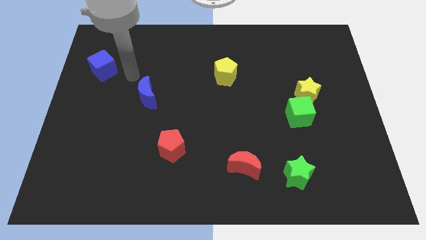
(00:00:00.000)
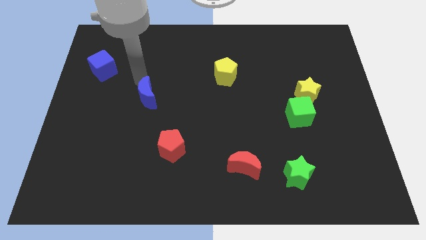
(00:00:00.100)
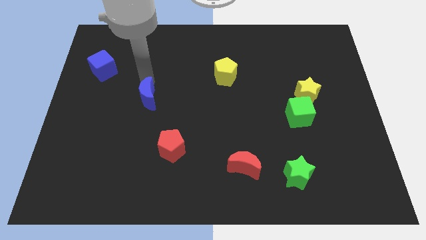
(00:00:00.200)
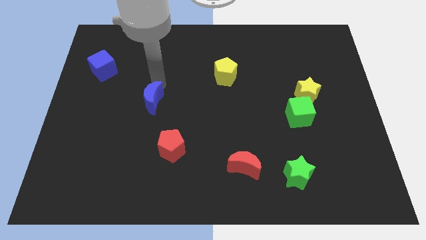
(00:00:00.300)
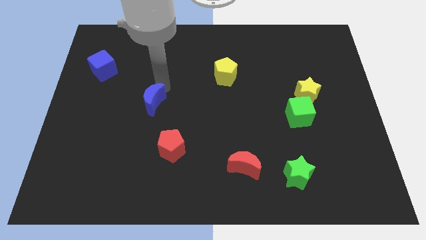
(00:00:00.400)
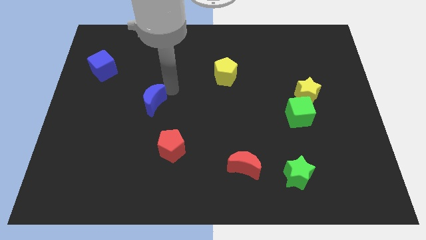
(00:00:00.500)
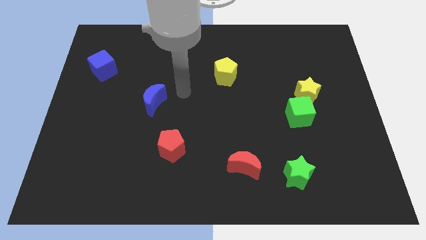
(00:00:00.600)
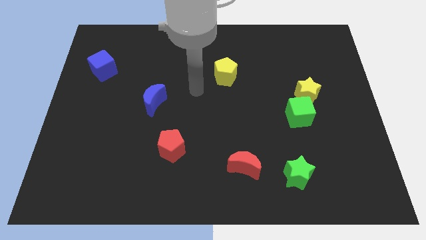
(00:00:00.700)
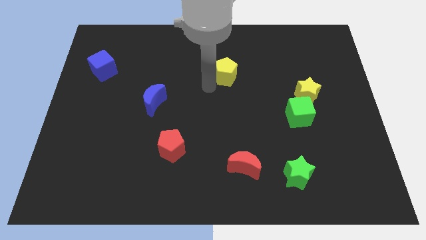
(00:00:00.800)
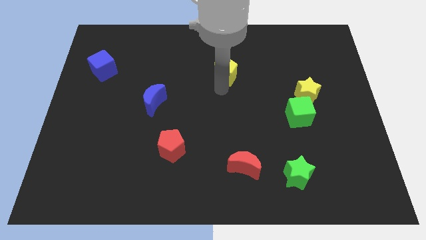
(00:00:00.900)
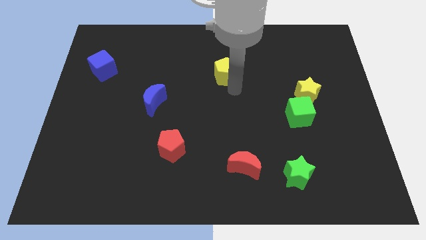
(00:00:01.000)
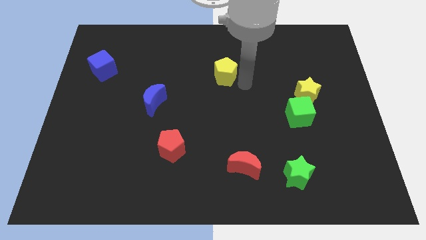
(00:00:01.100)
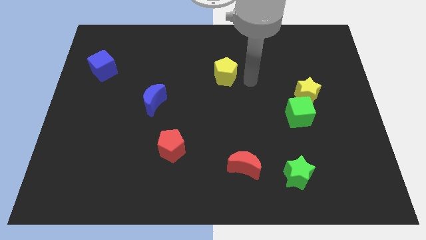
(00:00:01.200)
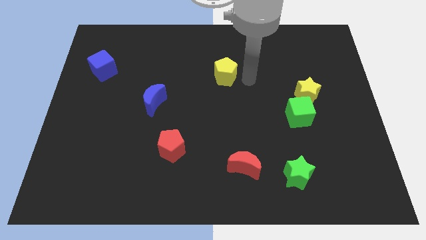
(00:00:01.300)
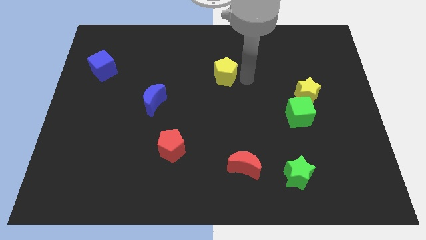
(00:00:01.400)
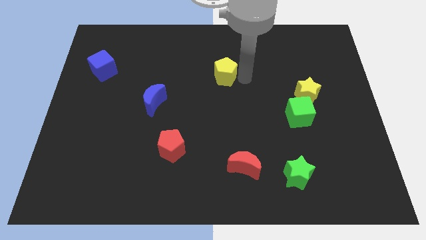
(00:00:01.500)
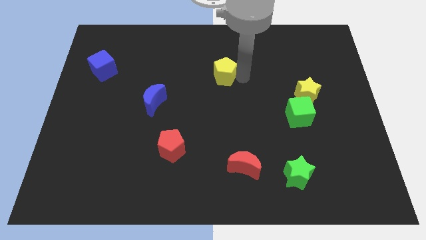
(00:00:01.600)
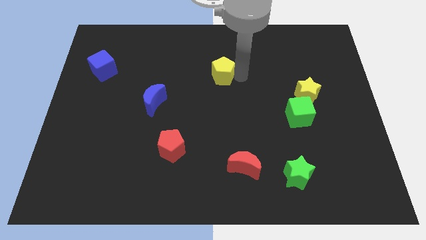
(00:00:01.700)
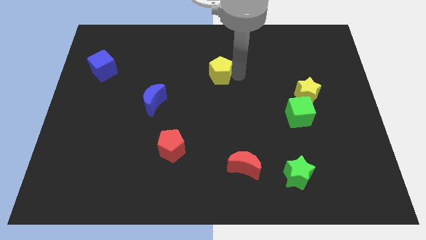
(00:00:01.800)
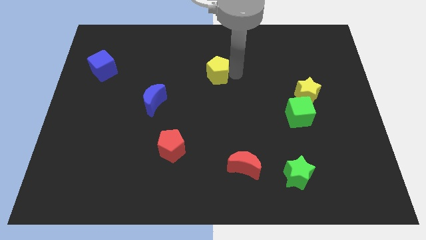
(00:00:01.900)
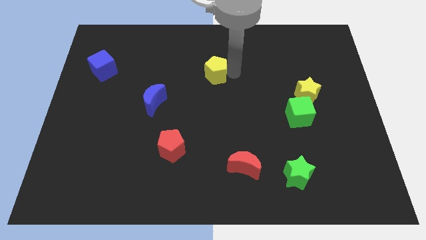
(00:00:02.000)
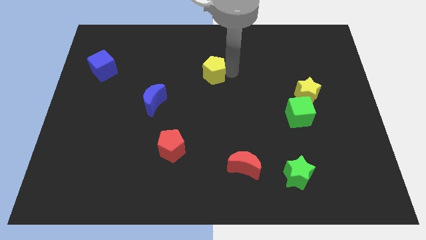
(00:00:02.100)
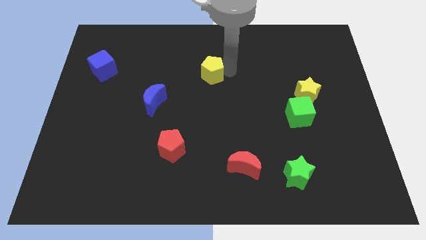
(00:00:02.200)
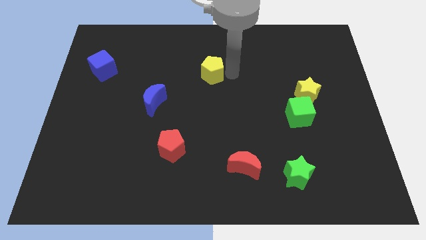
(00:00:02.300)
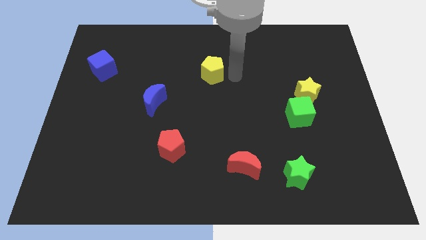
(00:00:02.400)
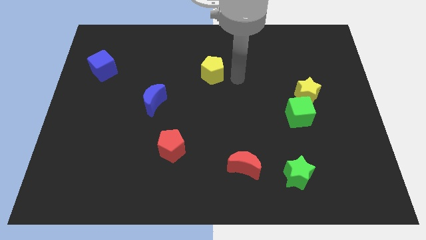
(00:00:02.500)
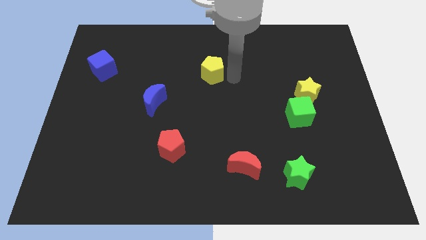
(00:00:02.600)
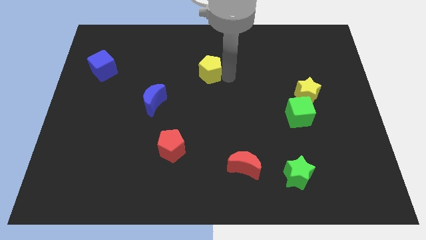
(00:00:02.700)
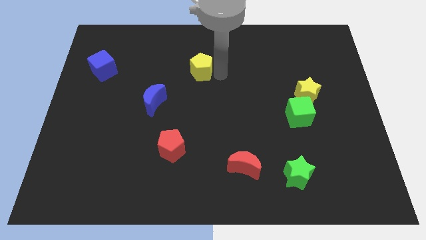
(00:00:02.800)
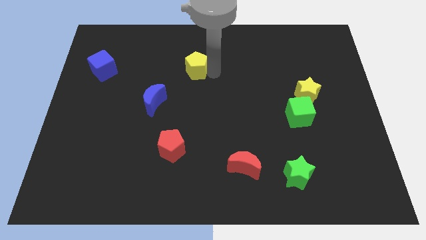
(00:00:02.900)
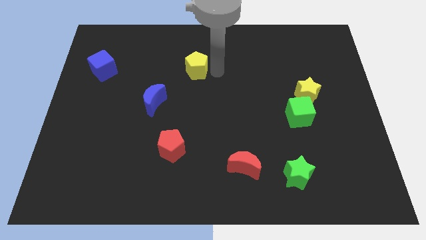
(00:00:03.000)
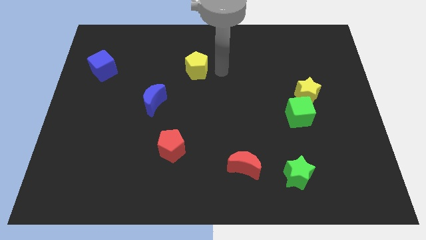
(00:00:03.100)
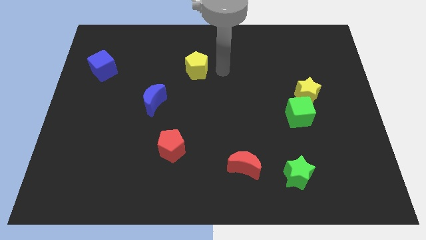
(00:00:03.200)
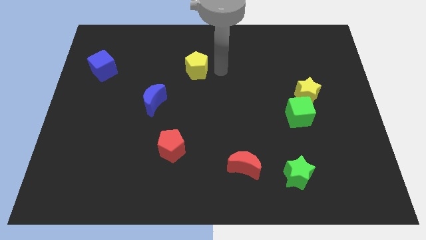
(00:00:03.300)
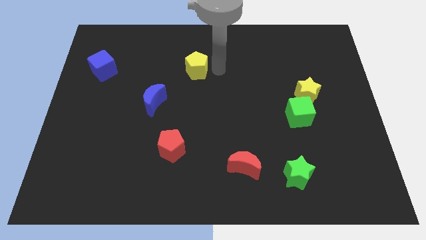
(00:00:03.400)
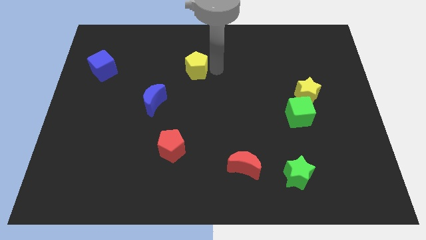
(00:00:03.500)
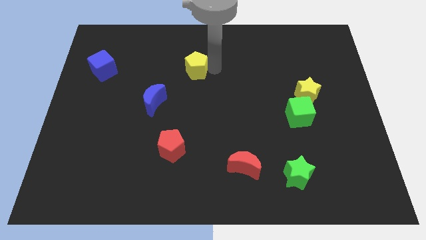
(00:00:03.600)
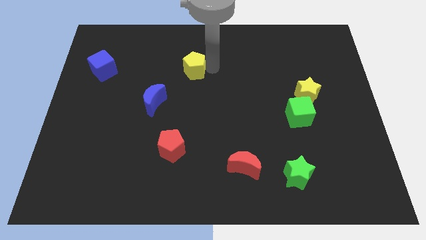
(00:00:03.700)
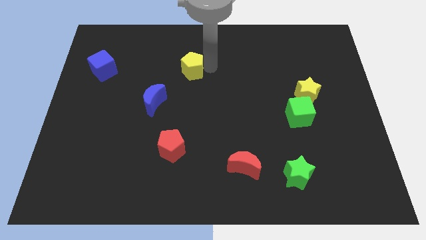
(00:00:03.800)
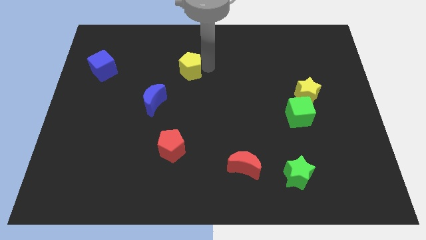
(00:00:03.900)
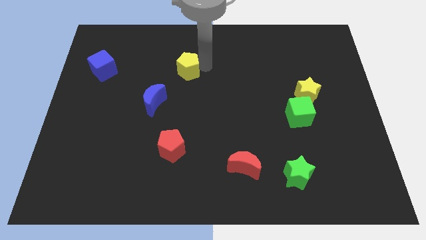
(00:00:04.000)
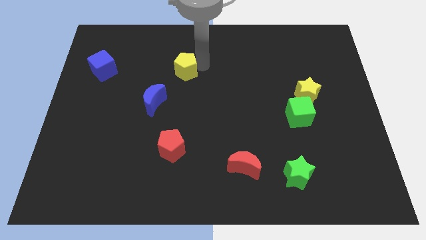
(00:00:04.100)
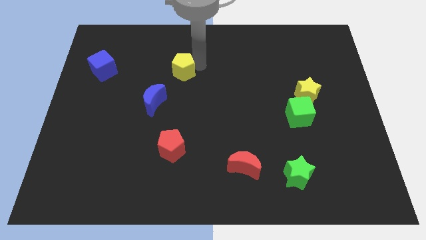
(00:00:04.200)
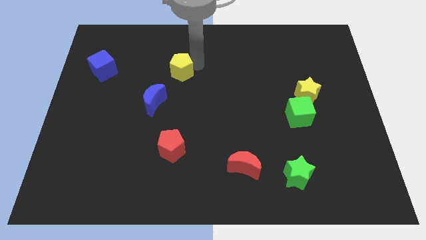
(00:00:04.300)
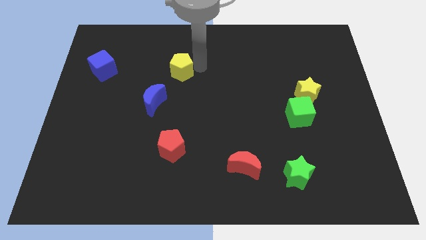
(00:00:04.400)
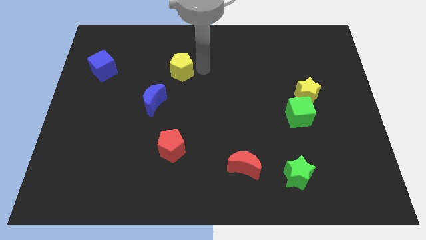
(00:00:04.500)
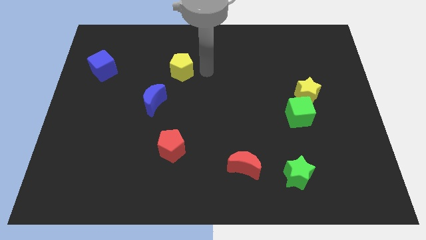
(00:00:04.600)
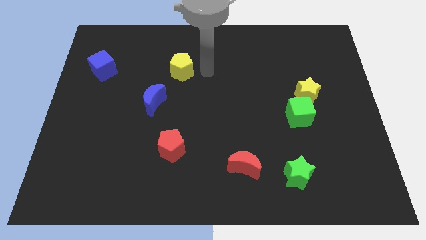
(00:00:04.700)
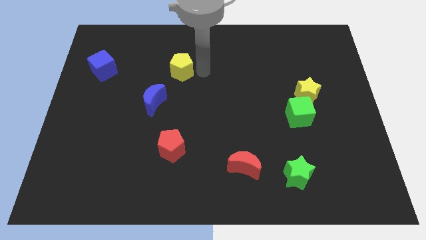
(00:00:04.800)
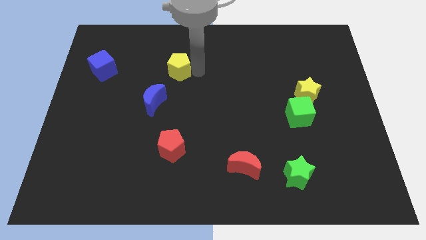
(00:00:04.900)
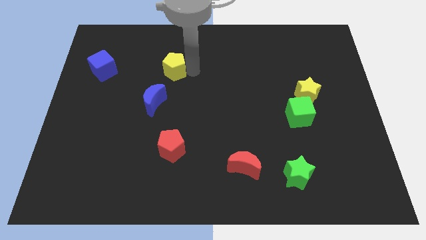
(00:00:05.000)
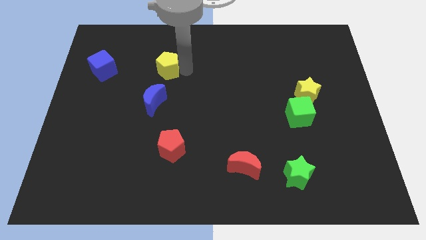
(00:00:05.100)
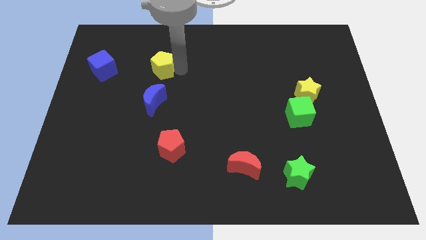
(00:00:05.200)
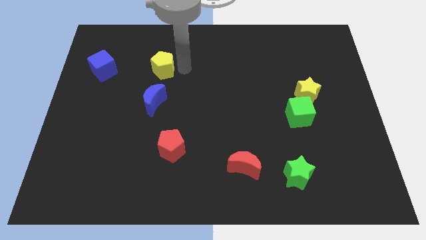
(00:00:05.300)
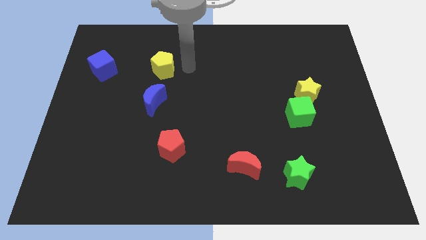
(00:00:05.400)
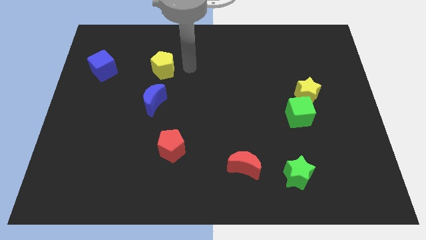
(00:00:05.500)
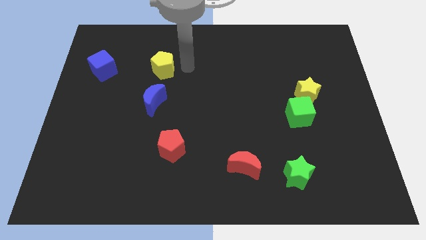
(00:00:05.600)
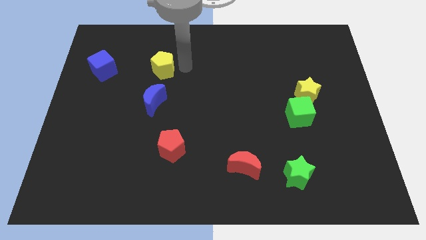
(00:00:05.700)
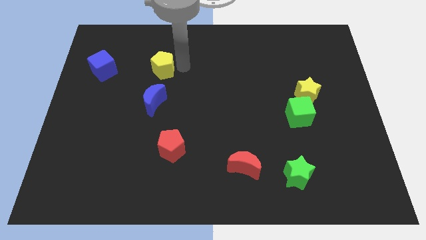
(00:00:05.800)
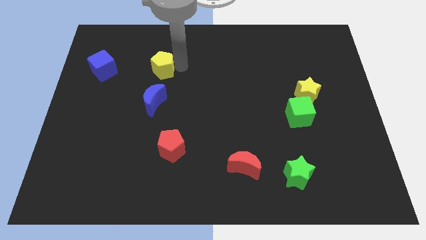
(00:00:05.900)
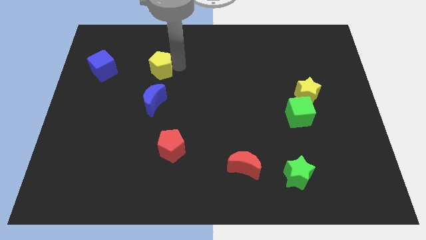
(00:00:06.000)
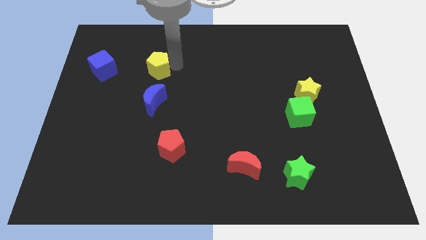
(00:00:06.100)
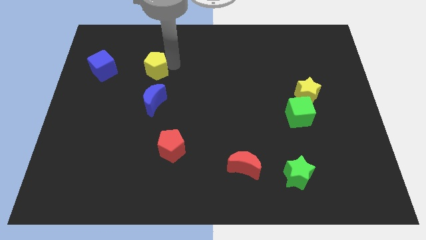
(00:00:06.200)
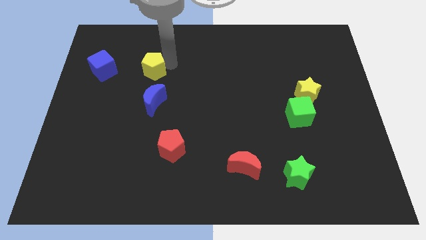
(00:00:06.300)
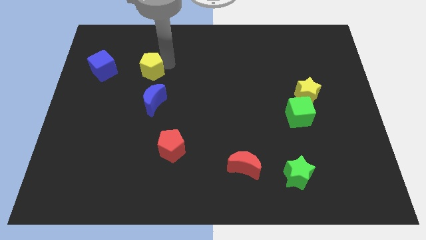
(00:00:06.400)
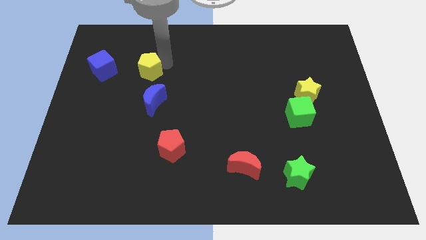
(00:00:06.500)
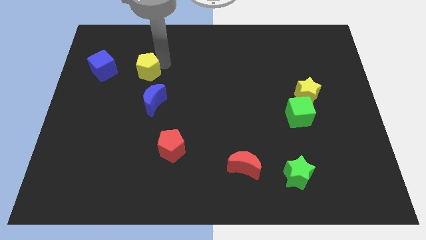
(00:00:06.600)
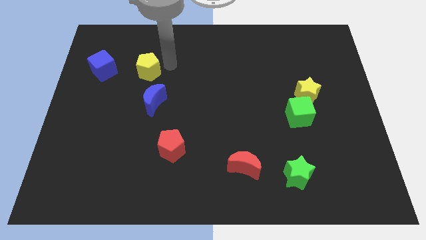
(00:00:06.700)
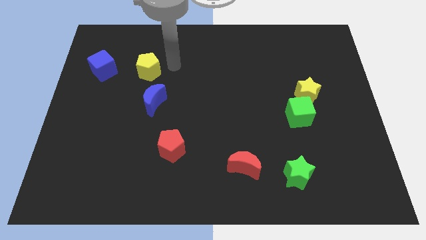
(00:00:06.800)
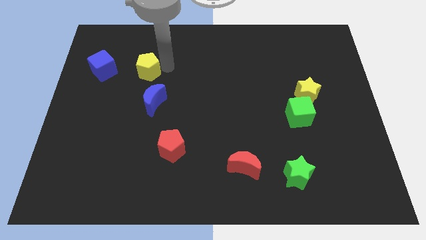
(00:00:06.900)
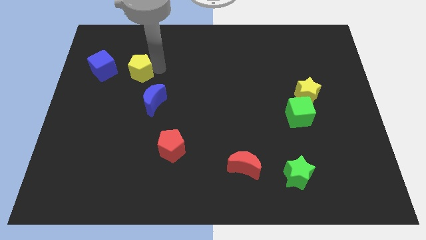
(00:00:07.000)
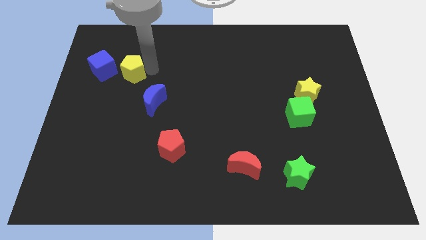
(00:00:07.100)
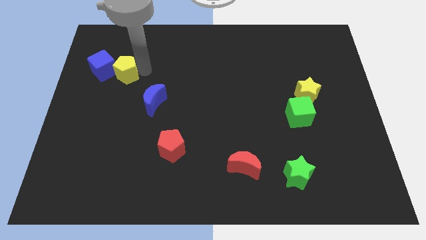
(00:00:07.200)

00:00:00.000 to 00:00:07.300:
push the yellow pentagon to the blue cube
